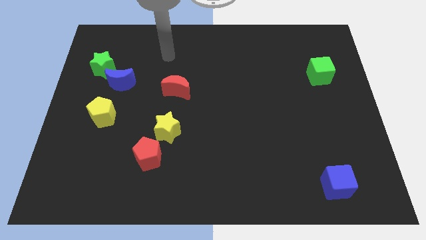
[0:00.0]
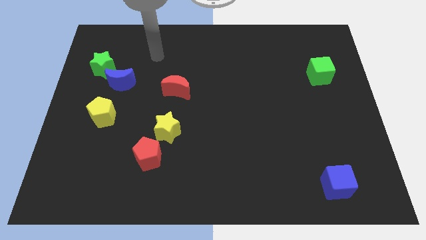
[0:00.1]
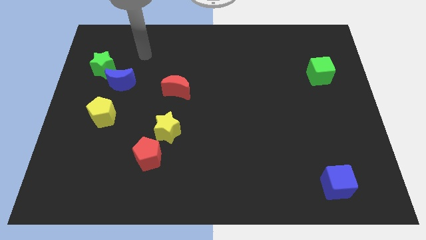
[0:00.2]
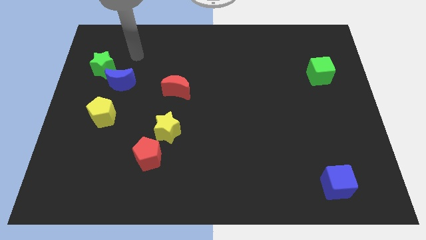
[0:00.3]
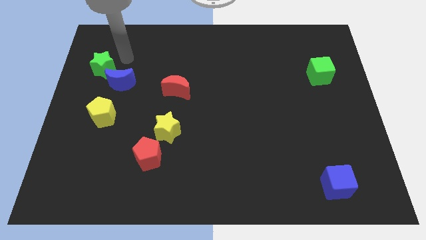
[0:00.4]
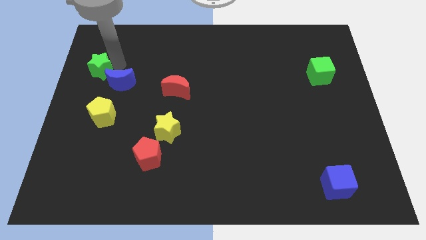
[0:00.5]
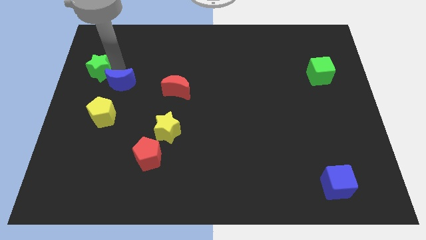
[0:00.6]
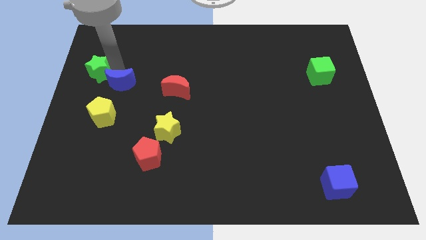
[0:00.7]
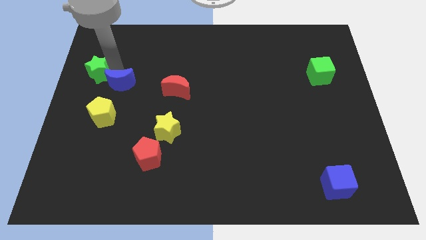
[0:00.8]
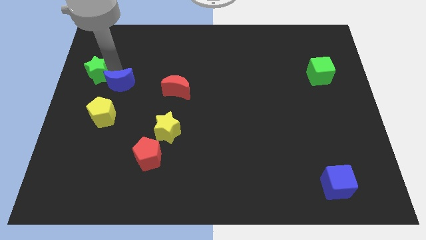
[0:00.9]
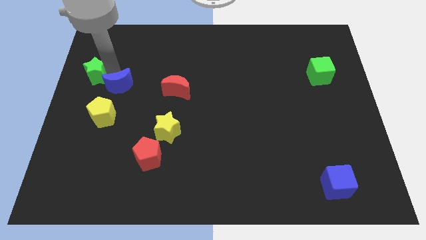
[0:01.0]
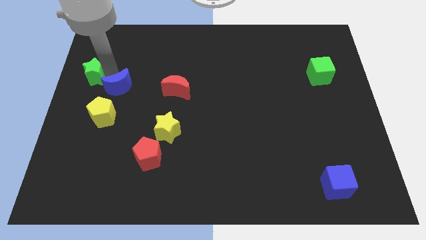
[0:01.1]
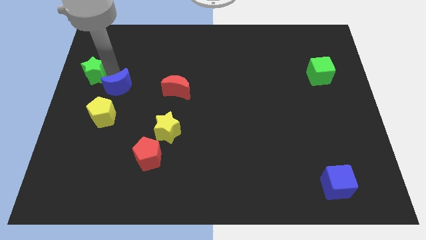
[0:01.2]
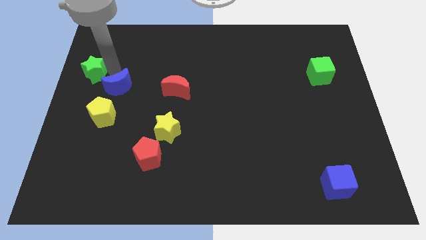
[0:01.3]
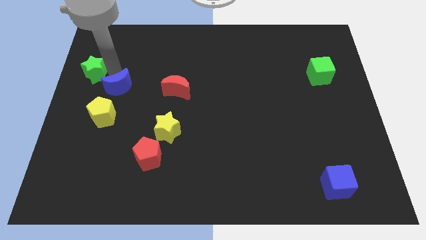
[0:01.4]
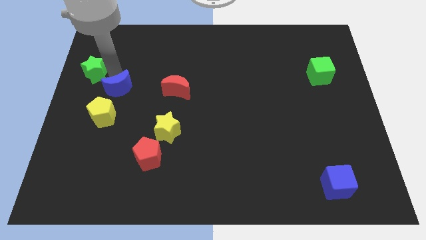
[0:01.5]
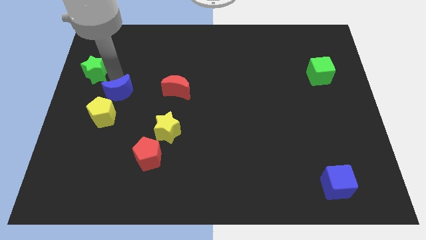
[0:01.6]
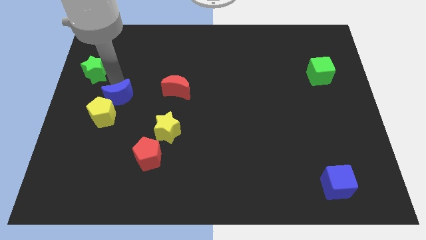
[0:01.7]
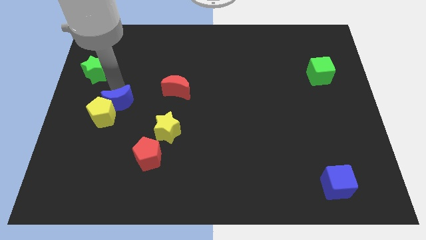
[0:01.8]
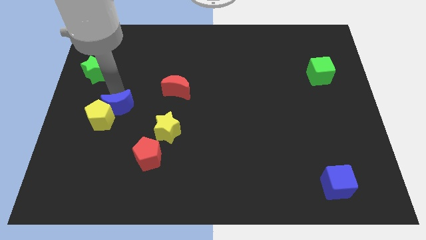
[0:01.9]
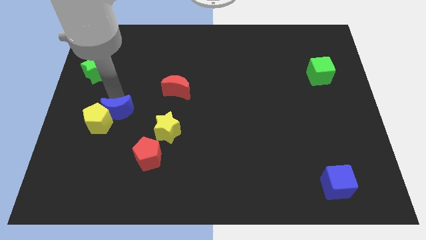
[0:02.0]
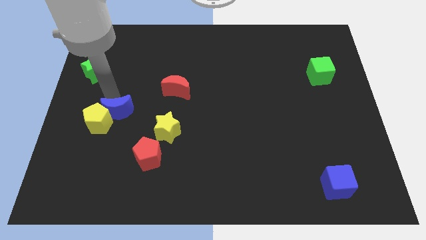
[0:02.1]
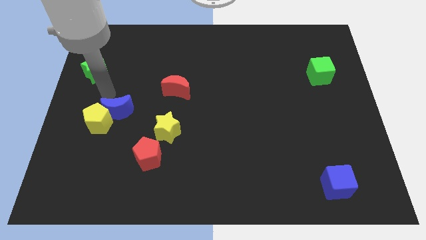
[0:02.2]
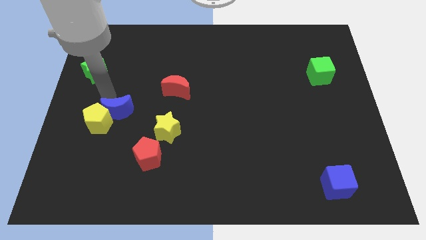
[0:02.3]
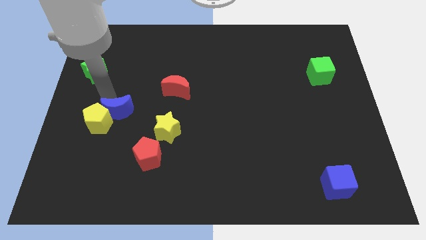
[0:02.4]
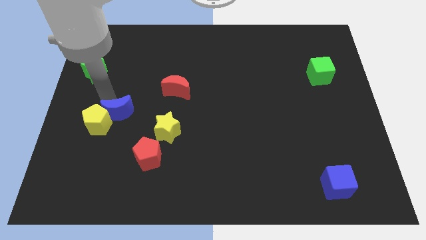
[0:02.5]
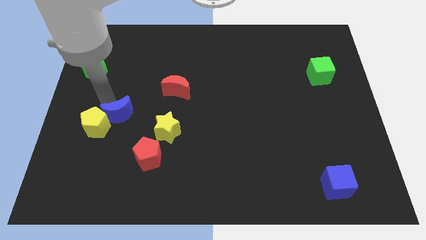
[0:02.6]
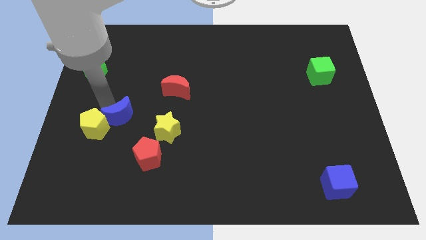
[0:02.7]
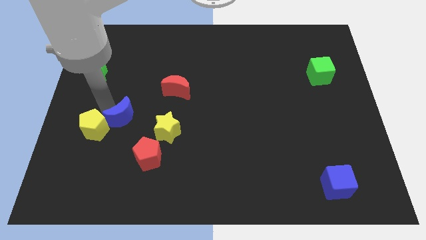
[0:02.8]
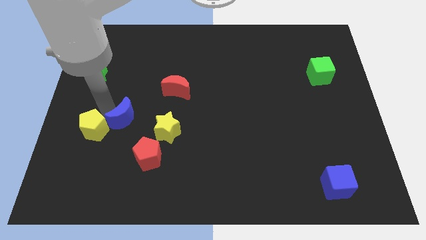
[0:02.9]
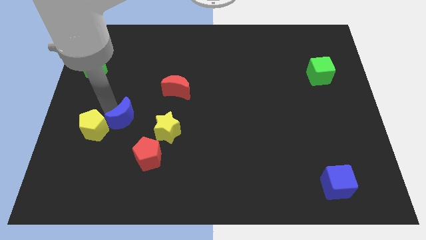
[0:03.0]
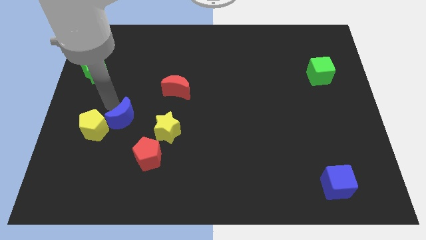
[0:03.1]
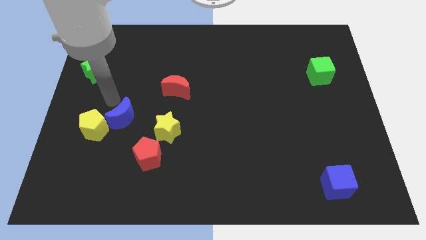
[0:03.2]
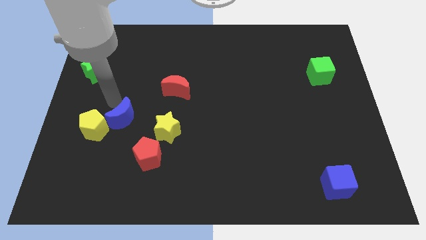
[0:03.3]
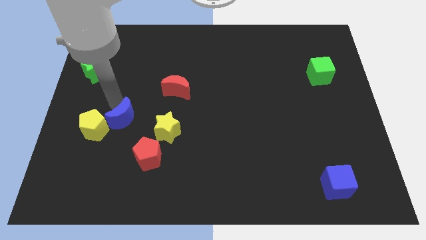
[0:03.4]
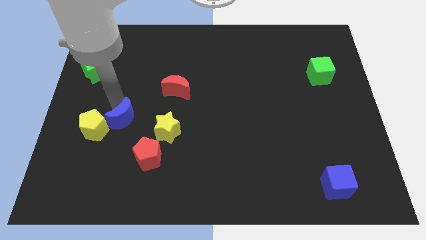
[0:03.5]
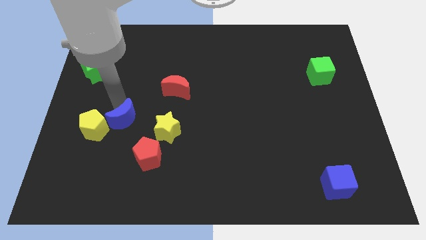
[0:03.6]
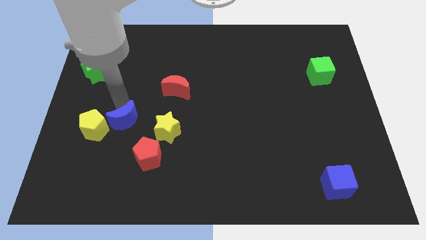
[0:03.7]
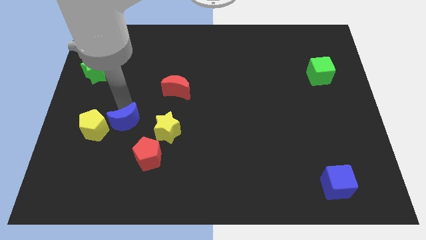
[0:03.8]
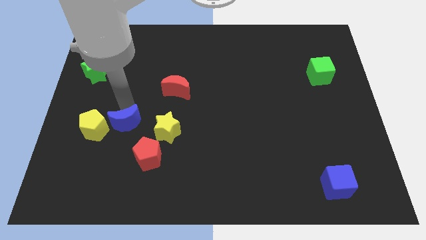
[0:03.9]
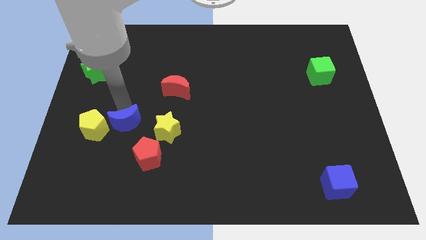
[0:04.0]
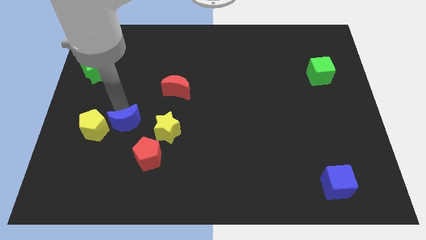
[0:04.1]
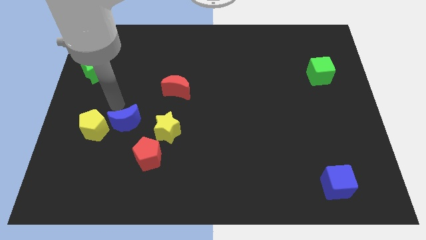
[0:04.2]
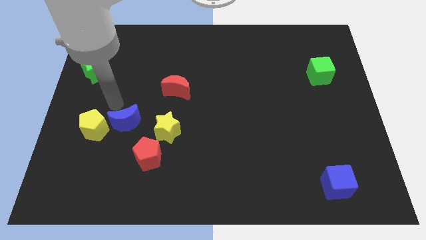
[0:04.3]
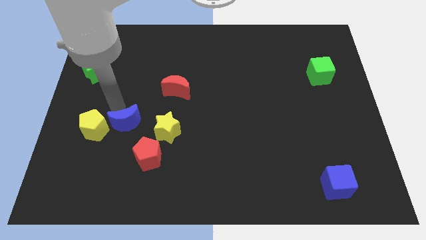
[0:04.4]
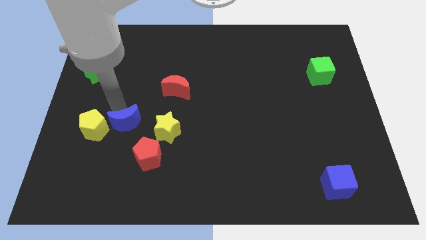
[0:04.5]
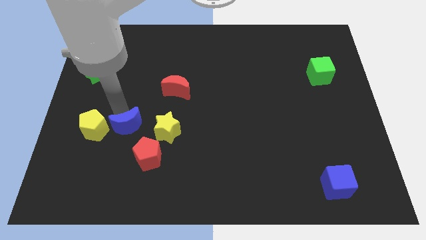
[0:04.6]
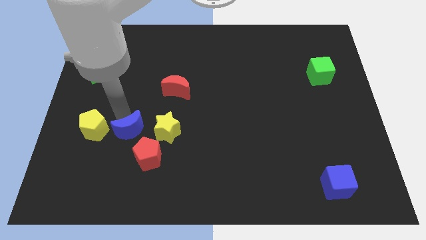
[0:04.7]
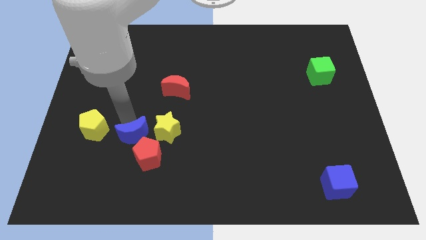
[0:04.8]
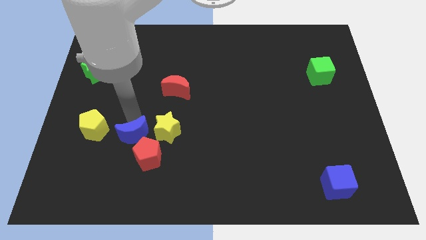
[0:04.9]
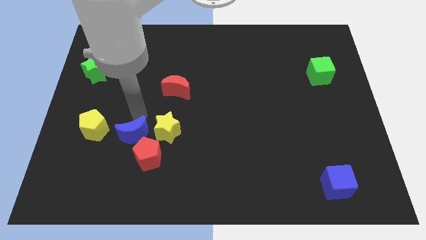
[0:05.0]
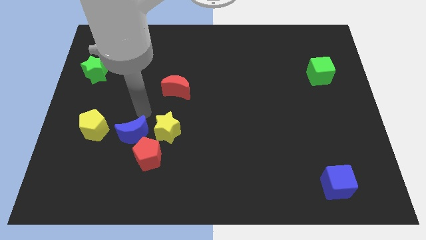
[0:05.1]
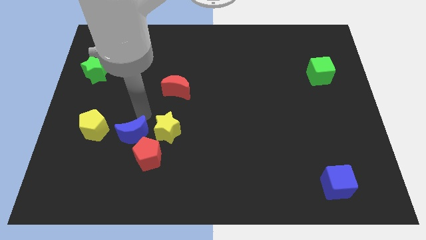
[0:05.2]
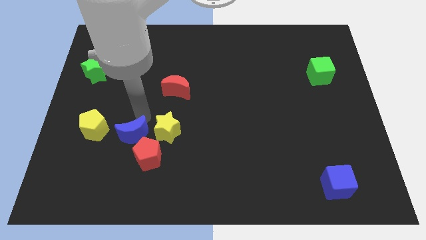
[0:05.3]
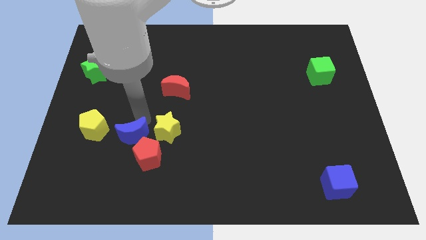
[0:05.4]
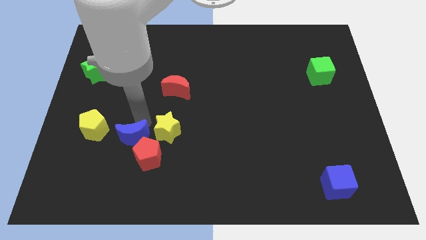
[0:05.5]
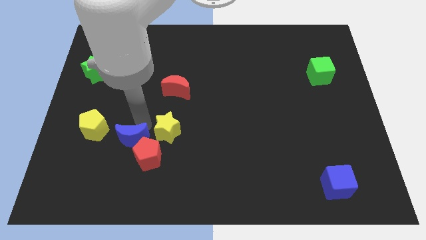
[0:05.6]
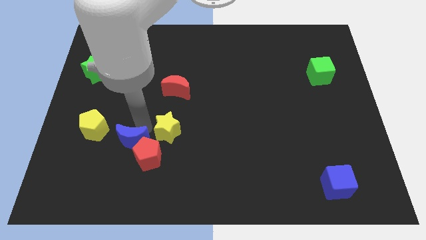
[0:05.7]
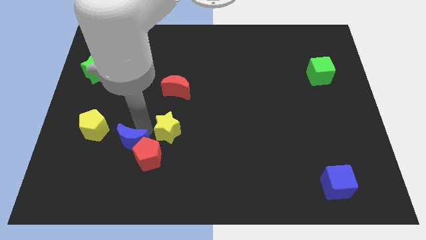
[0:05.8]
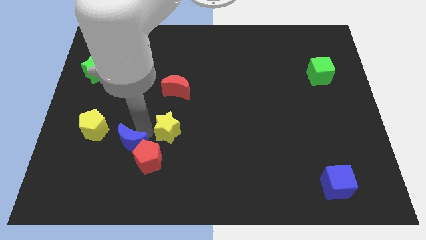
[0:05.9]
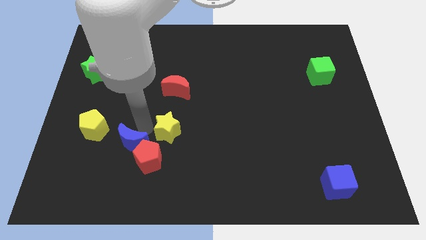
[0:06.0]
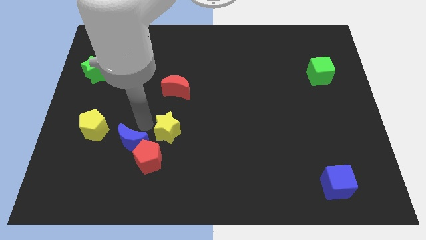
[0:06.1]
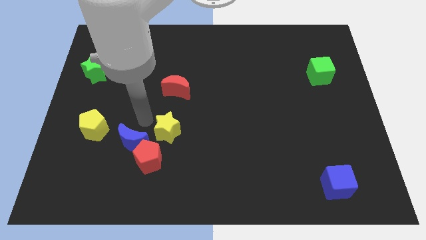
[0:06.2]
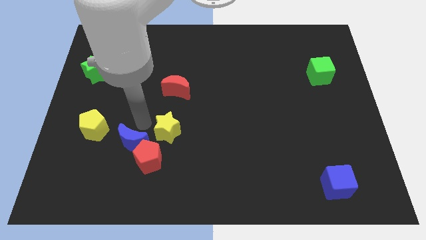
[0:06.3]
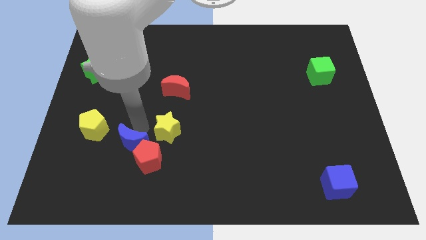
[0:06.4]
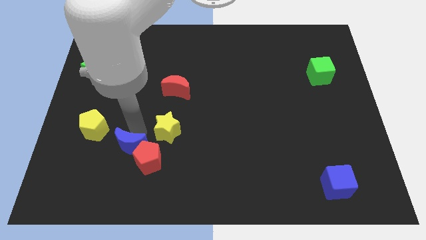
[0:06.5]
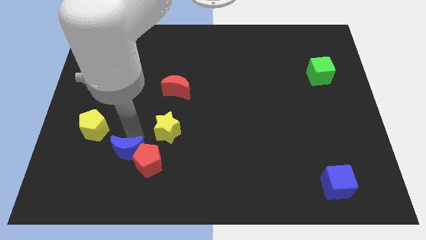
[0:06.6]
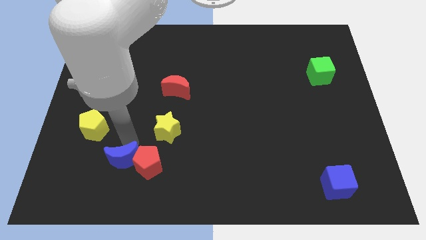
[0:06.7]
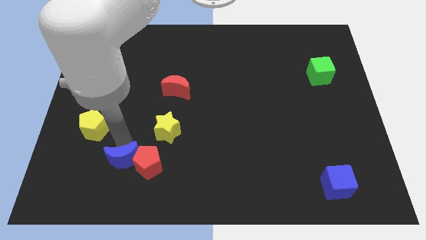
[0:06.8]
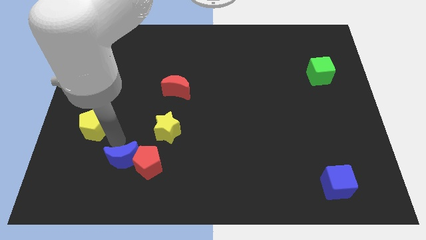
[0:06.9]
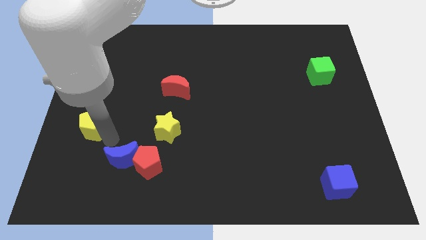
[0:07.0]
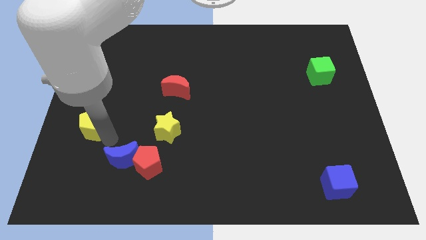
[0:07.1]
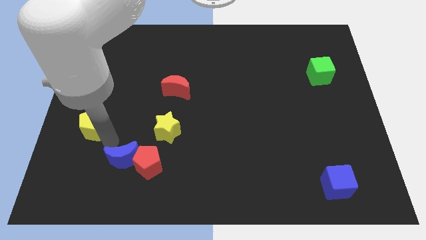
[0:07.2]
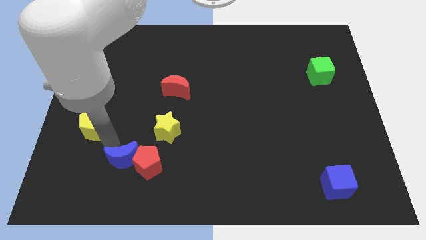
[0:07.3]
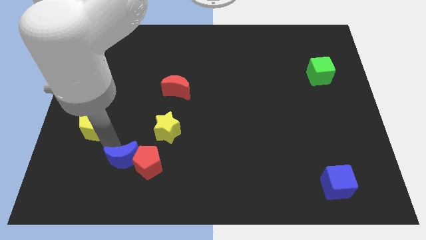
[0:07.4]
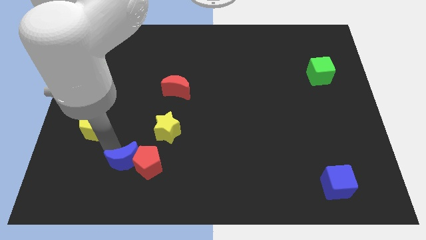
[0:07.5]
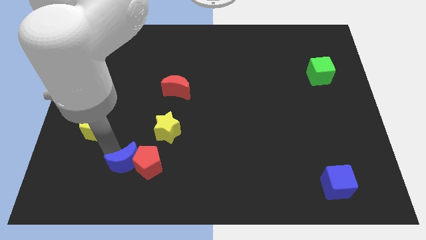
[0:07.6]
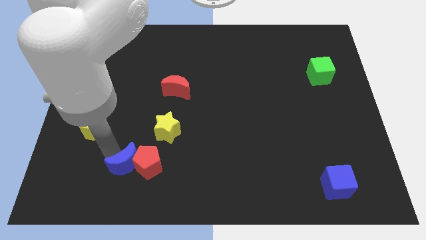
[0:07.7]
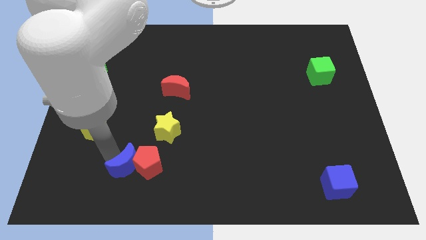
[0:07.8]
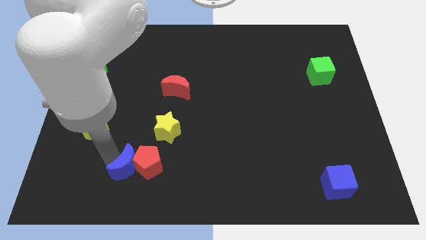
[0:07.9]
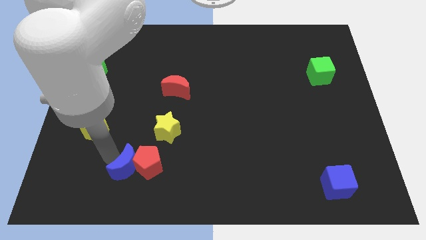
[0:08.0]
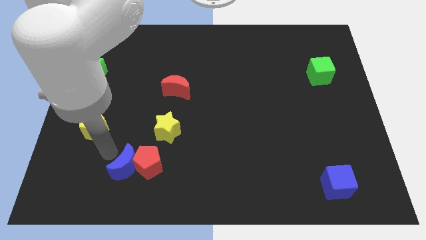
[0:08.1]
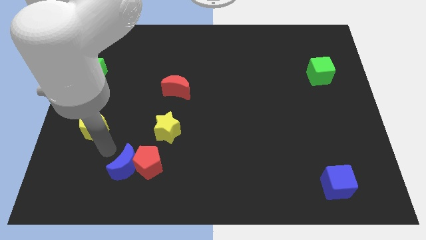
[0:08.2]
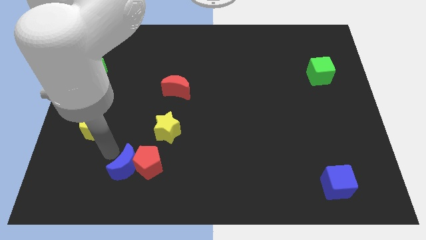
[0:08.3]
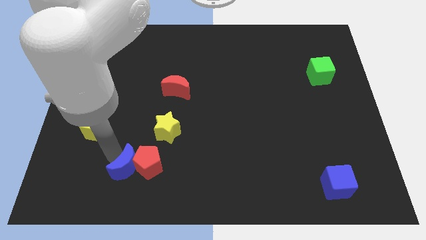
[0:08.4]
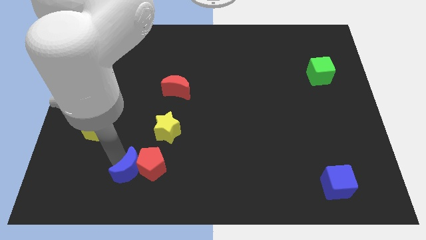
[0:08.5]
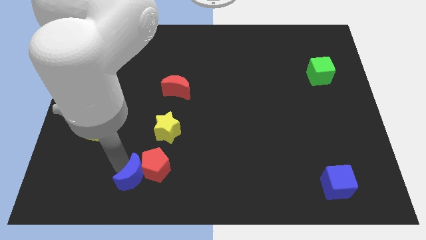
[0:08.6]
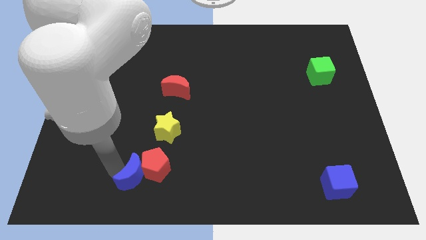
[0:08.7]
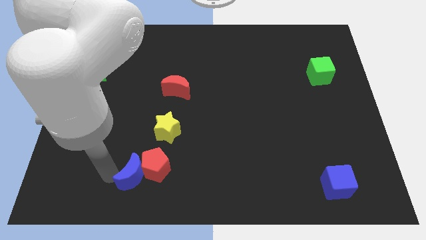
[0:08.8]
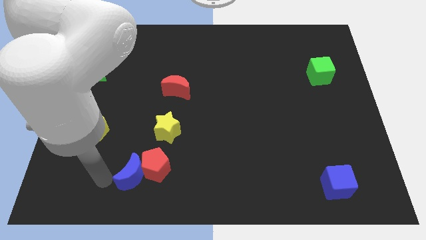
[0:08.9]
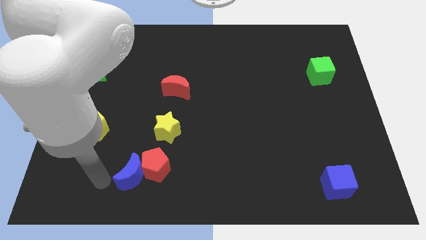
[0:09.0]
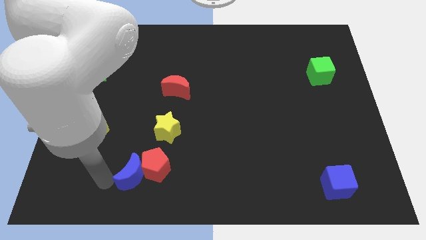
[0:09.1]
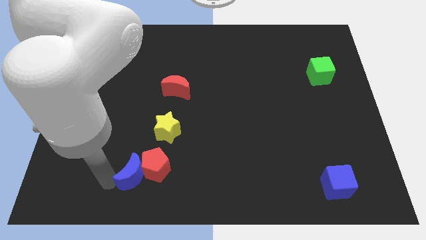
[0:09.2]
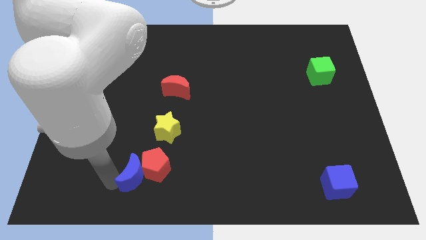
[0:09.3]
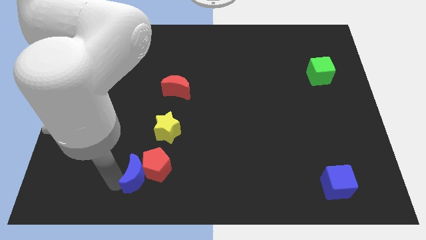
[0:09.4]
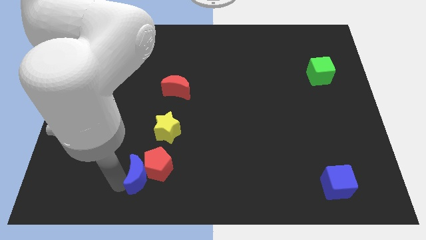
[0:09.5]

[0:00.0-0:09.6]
move the blue moon below the yellow star
